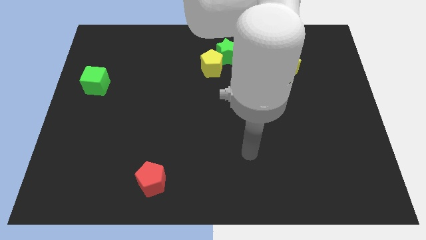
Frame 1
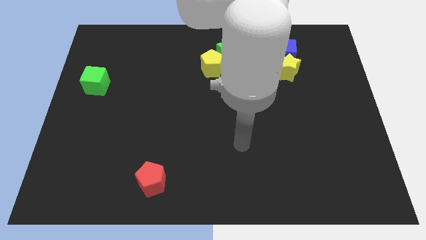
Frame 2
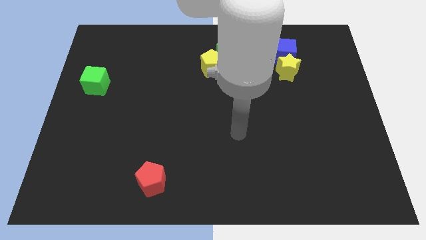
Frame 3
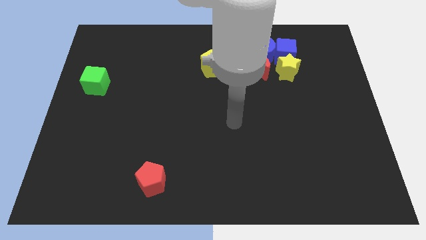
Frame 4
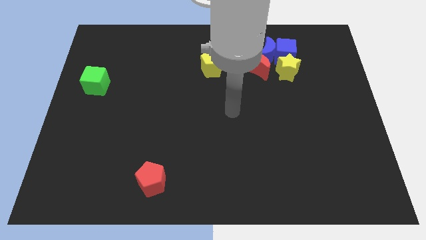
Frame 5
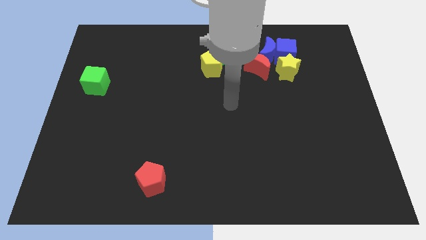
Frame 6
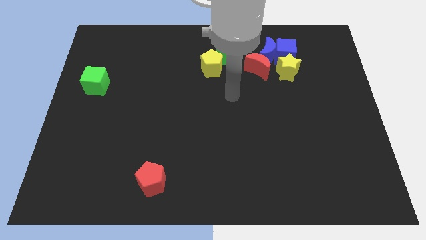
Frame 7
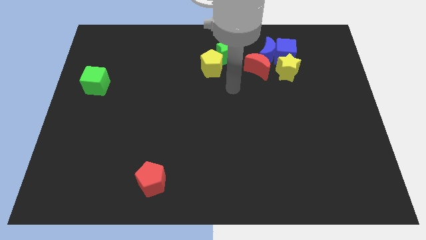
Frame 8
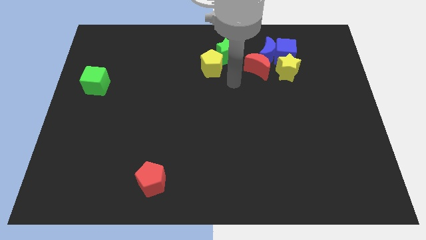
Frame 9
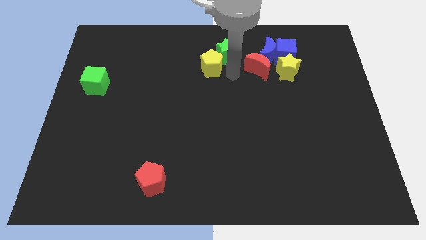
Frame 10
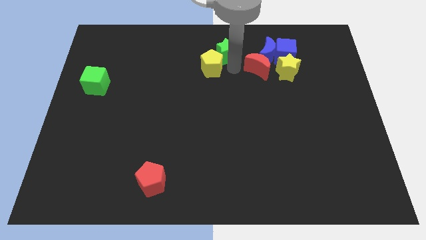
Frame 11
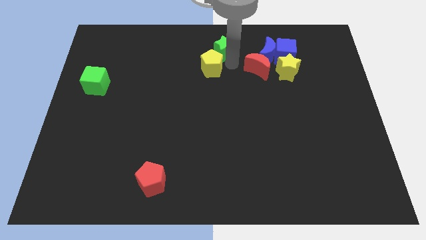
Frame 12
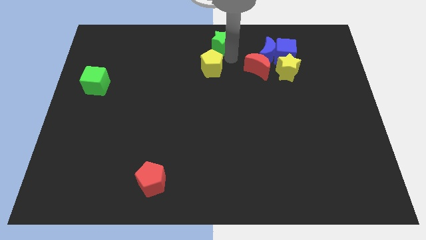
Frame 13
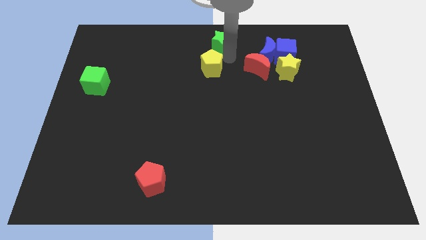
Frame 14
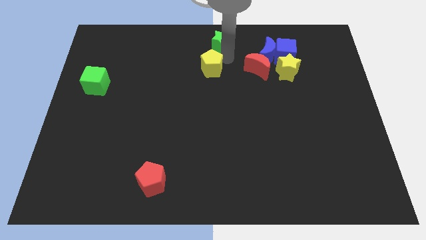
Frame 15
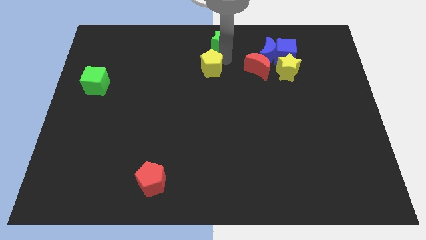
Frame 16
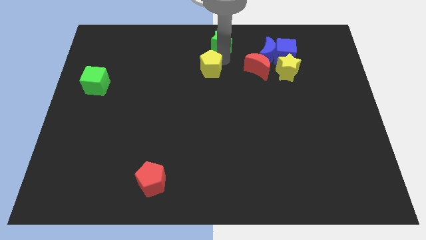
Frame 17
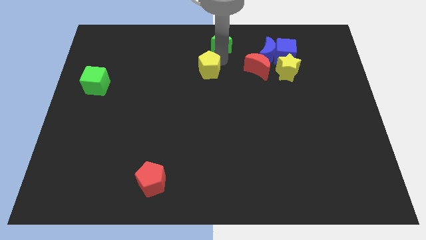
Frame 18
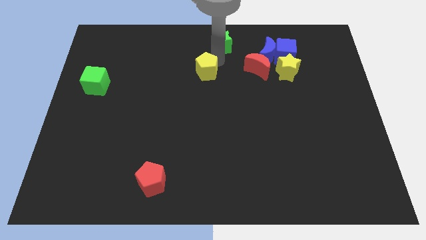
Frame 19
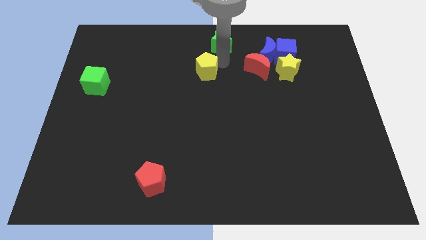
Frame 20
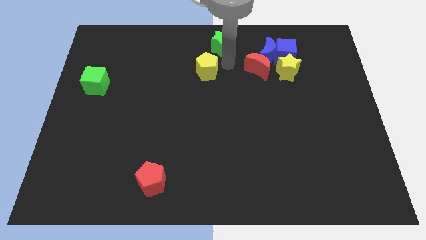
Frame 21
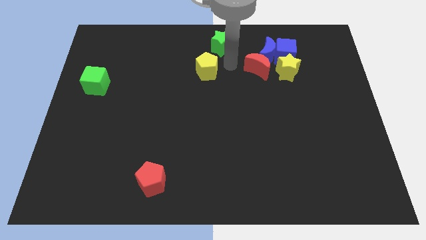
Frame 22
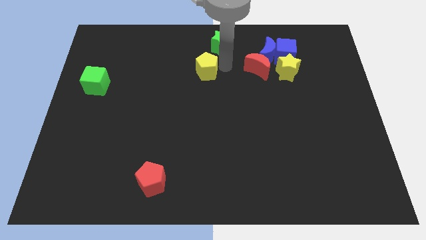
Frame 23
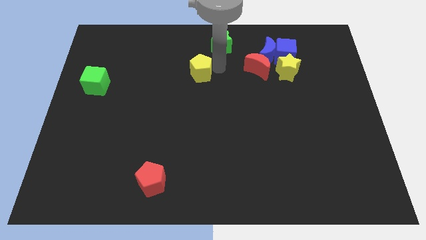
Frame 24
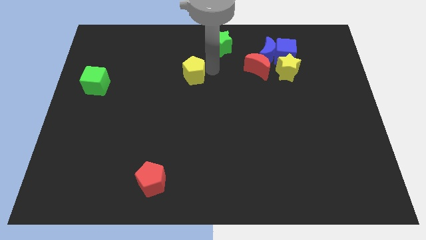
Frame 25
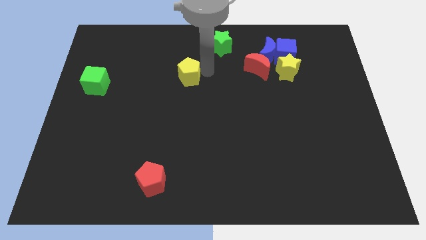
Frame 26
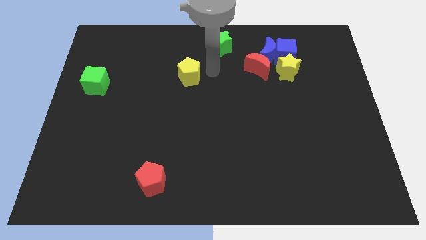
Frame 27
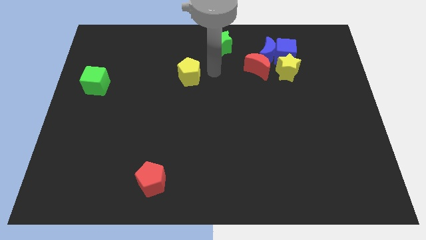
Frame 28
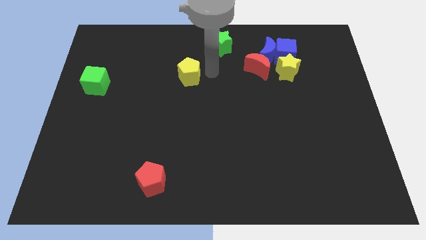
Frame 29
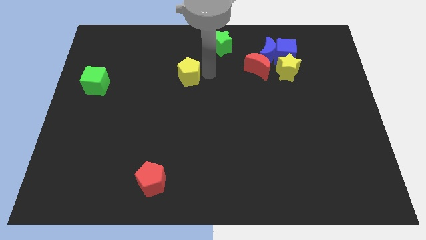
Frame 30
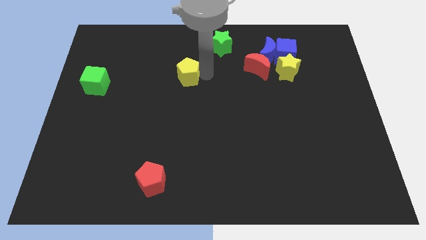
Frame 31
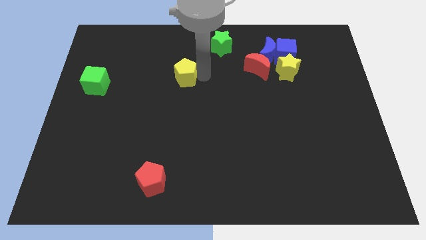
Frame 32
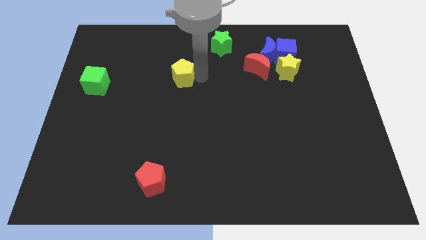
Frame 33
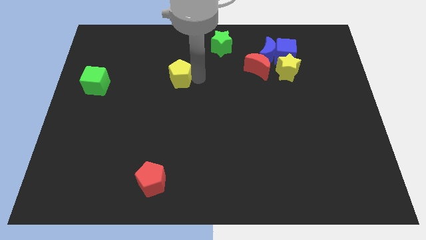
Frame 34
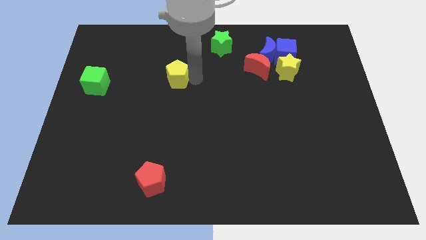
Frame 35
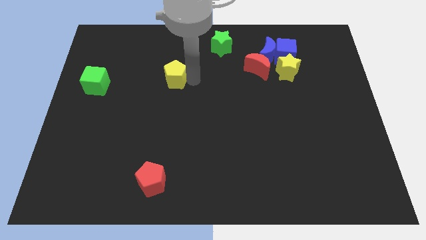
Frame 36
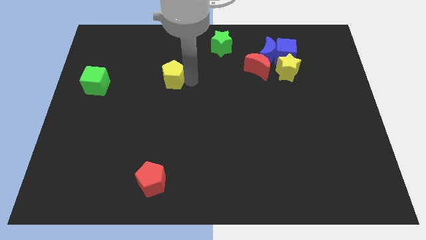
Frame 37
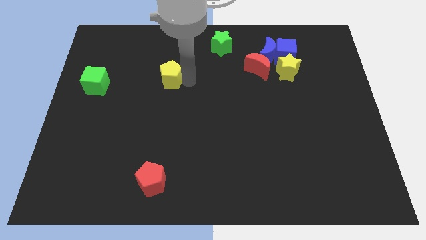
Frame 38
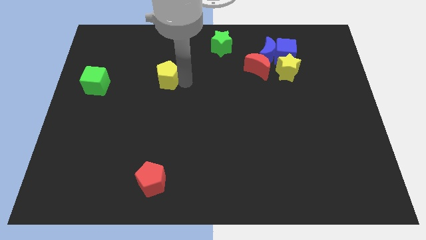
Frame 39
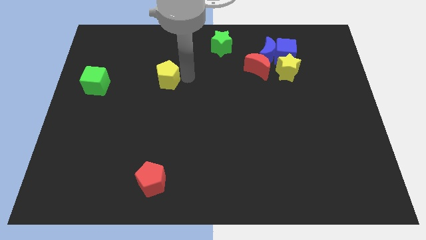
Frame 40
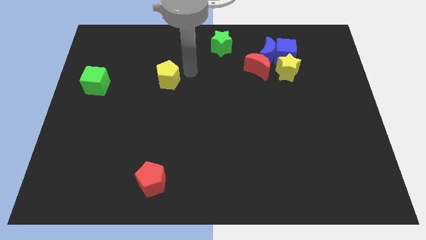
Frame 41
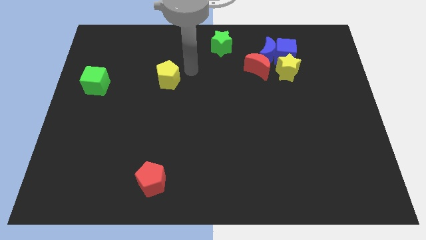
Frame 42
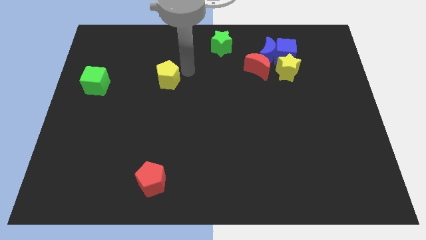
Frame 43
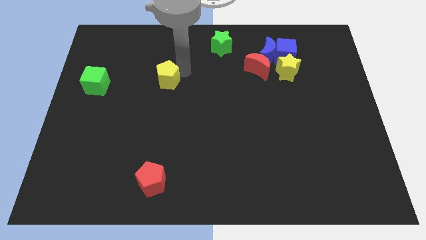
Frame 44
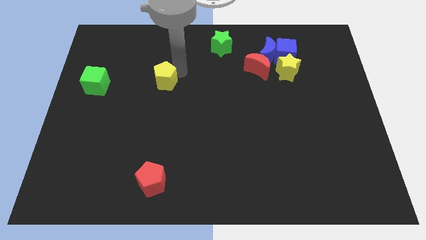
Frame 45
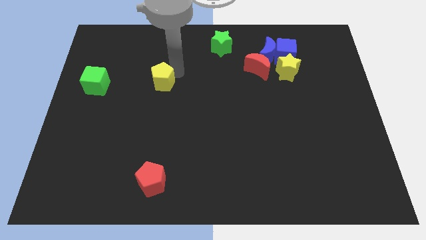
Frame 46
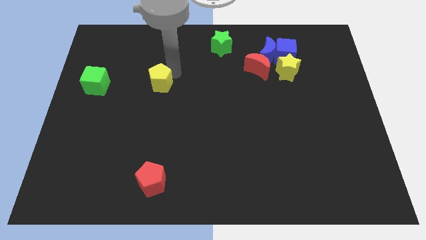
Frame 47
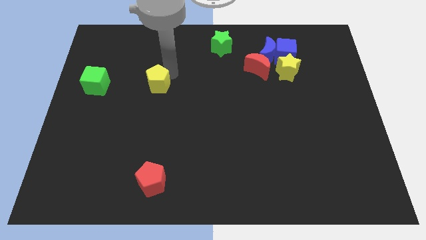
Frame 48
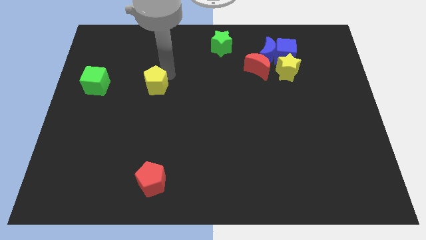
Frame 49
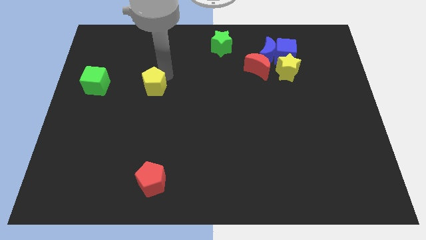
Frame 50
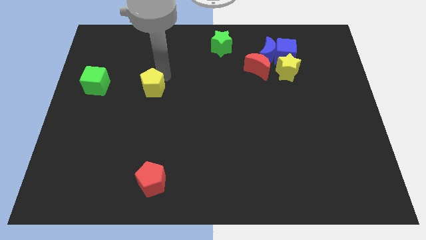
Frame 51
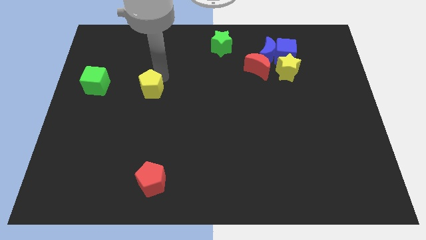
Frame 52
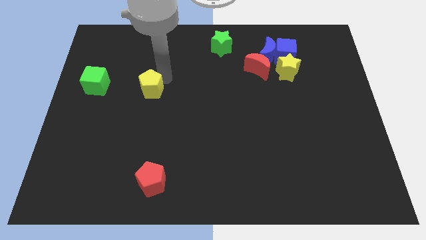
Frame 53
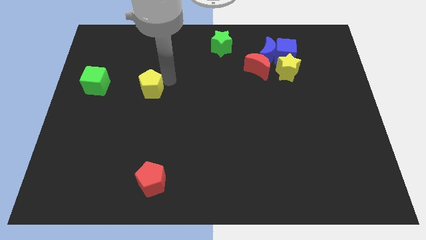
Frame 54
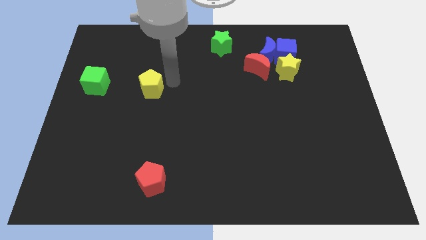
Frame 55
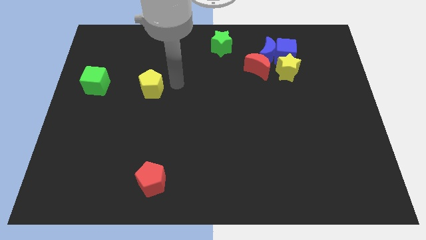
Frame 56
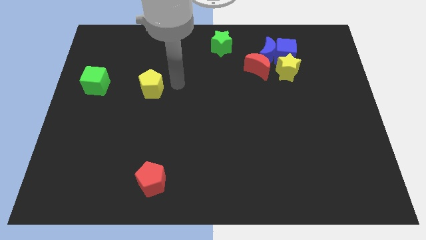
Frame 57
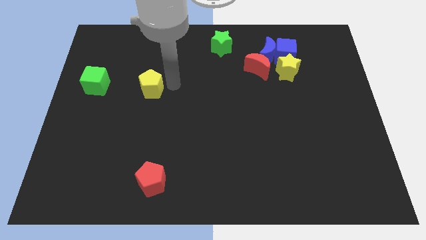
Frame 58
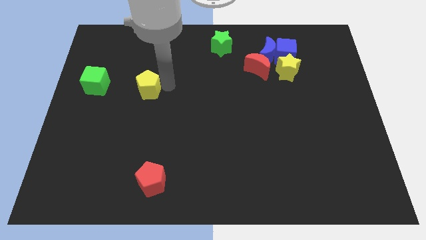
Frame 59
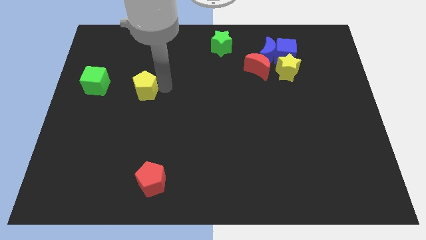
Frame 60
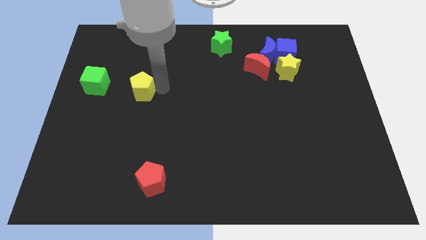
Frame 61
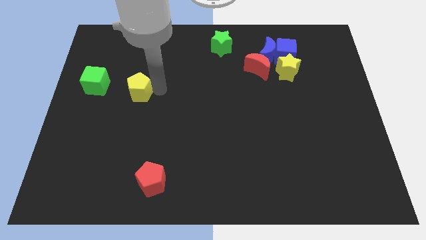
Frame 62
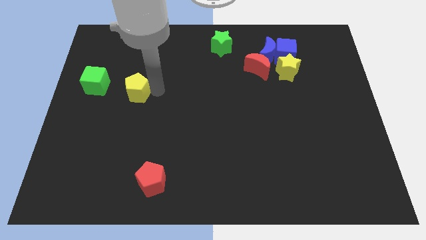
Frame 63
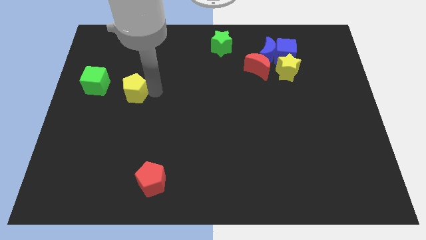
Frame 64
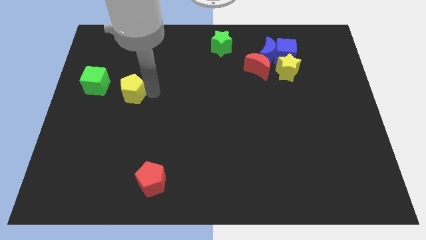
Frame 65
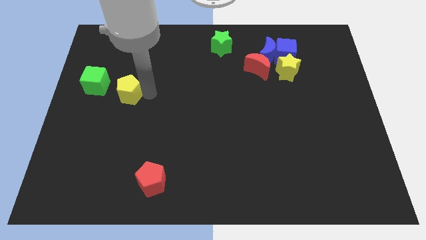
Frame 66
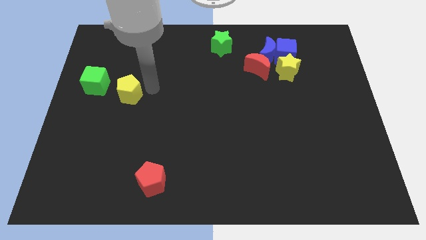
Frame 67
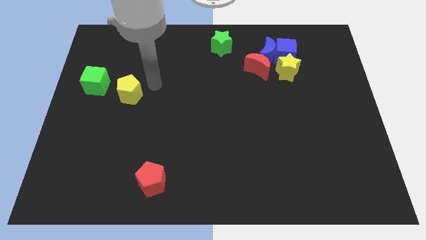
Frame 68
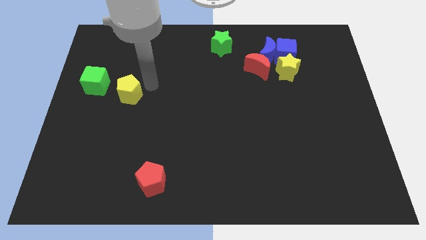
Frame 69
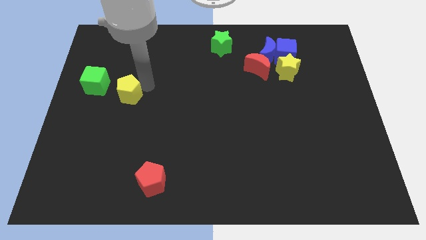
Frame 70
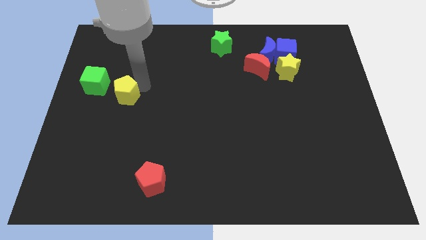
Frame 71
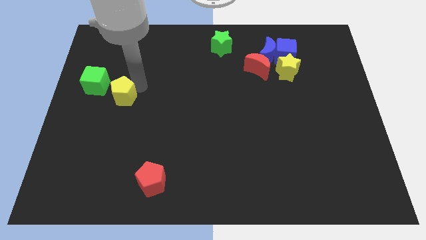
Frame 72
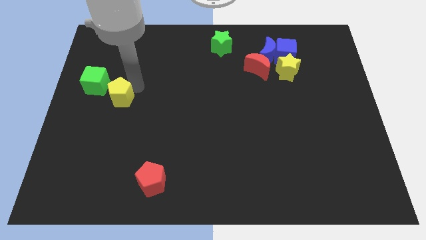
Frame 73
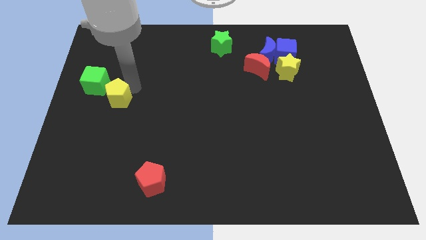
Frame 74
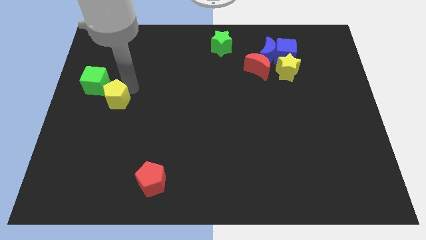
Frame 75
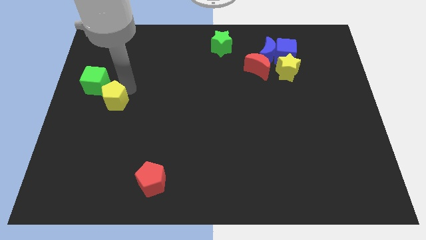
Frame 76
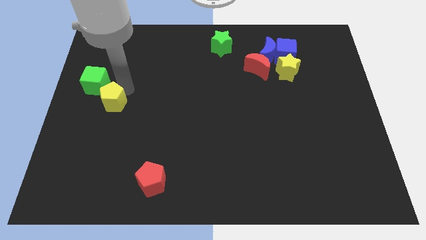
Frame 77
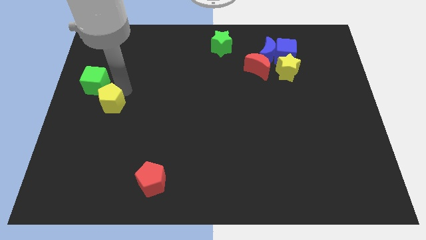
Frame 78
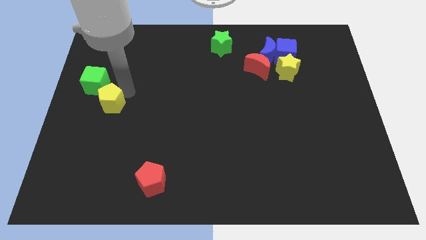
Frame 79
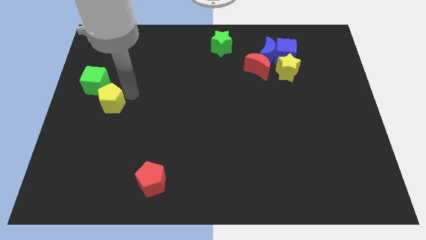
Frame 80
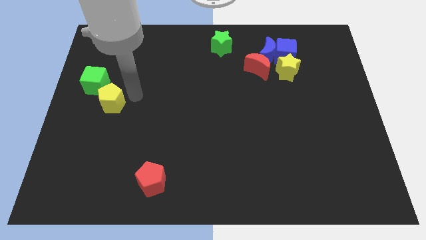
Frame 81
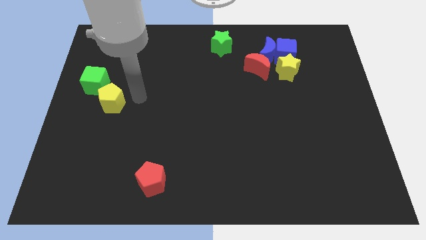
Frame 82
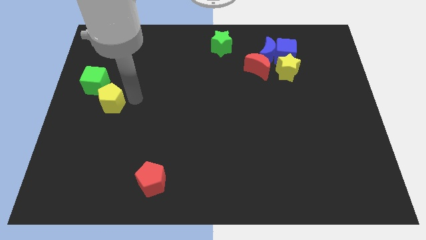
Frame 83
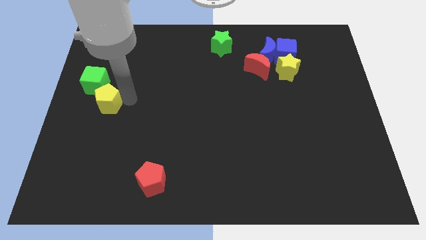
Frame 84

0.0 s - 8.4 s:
push the yellow pentagon to the left side of the board
